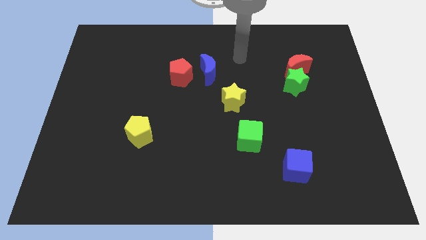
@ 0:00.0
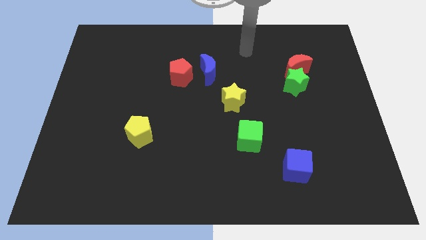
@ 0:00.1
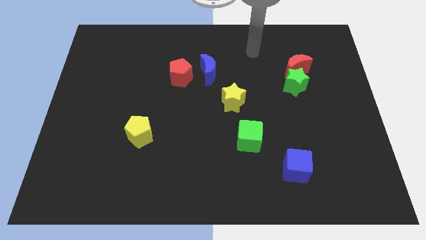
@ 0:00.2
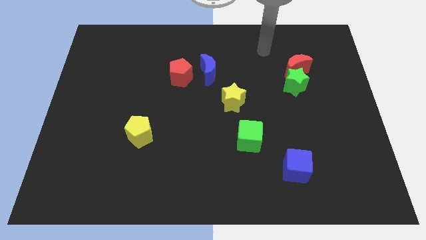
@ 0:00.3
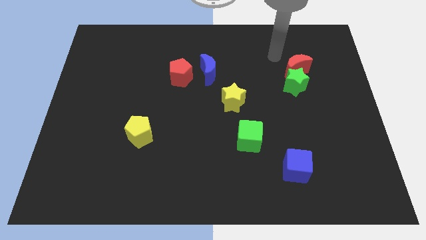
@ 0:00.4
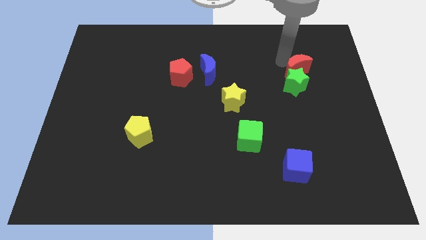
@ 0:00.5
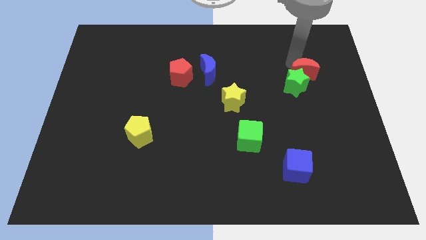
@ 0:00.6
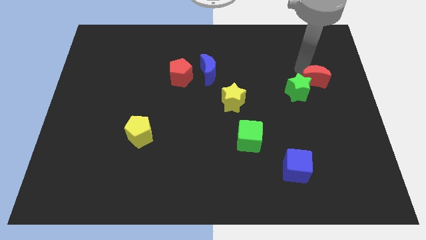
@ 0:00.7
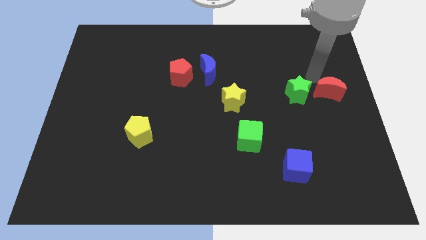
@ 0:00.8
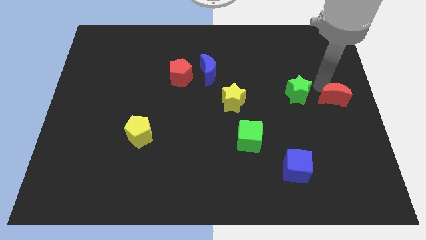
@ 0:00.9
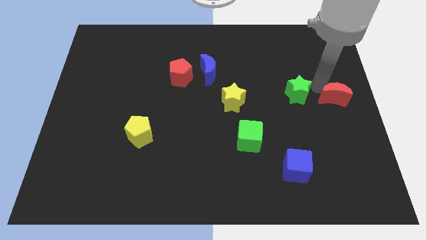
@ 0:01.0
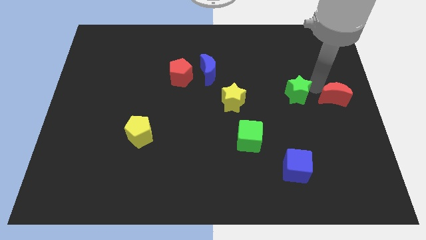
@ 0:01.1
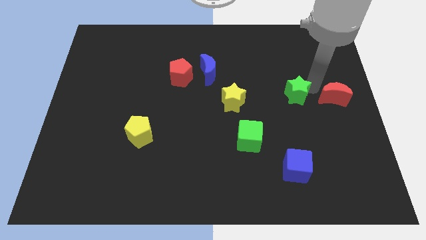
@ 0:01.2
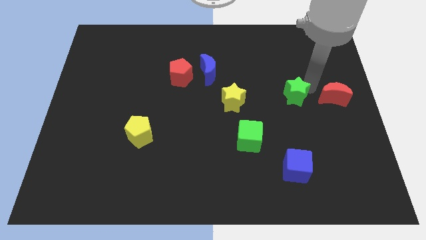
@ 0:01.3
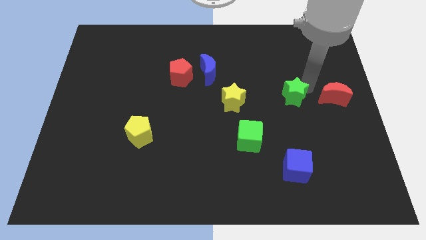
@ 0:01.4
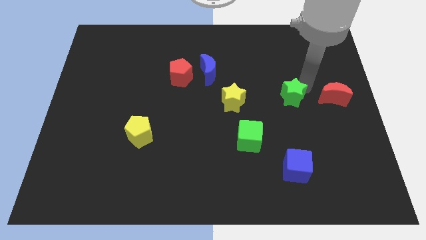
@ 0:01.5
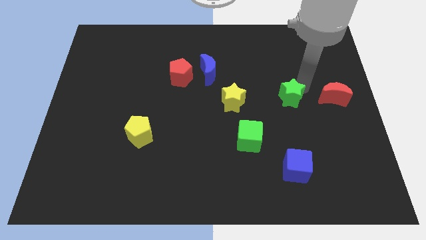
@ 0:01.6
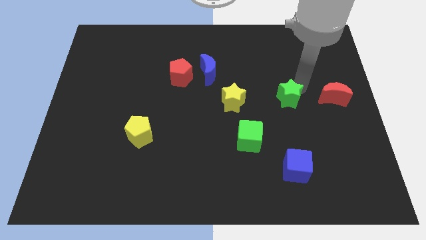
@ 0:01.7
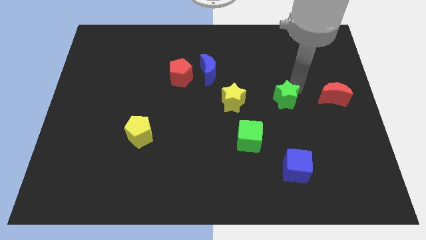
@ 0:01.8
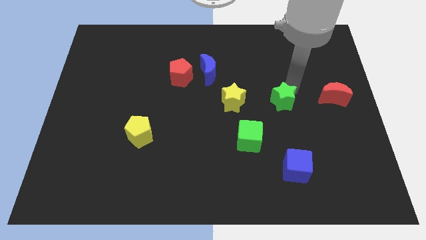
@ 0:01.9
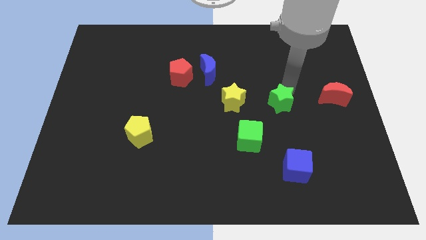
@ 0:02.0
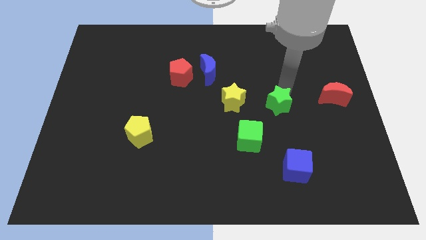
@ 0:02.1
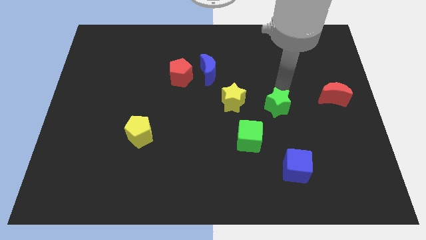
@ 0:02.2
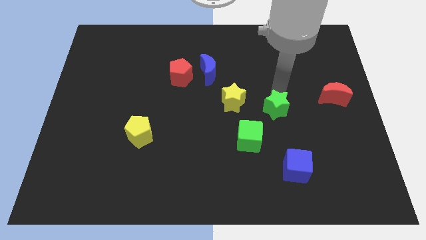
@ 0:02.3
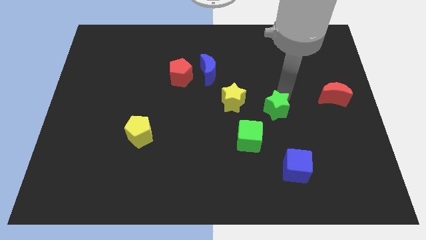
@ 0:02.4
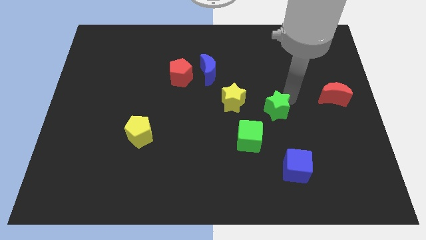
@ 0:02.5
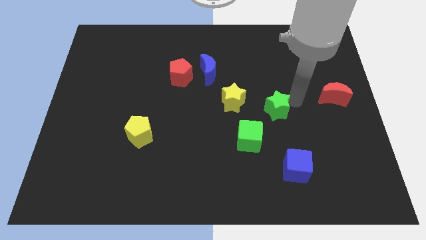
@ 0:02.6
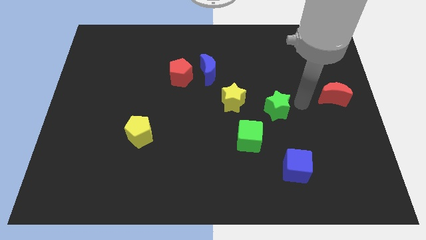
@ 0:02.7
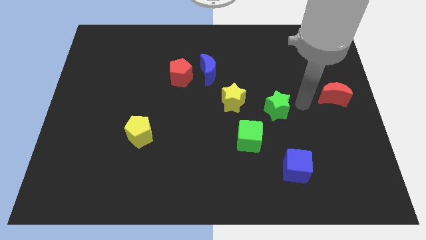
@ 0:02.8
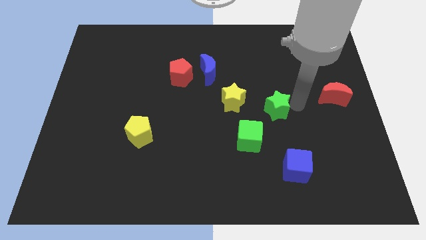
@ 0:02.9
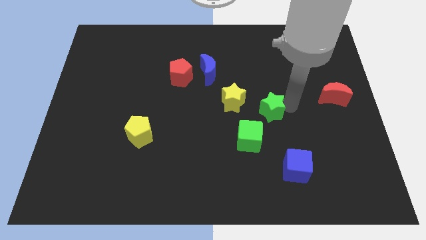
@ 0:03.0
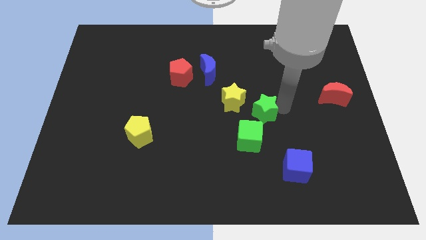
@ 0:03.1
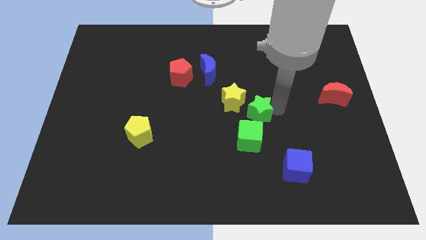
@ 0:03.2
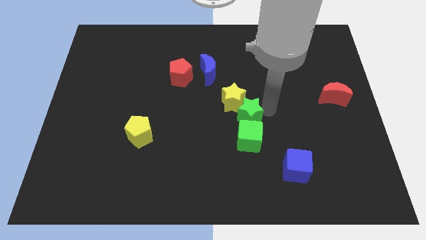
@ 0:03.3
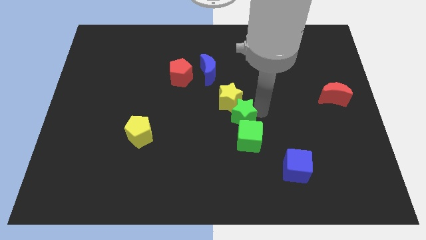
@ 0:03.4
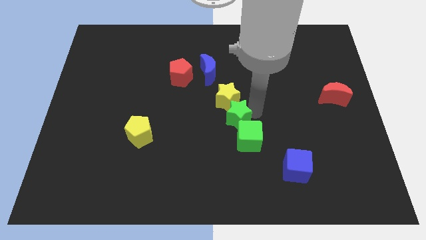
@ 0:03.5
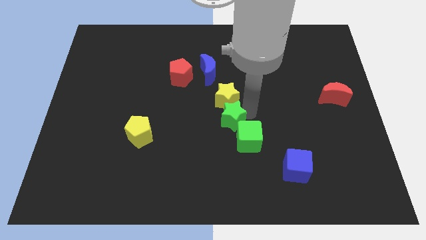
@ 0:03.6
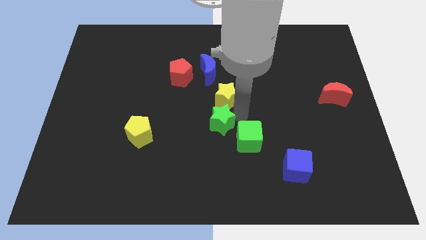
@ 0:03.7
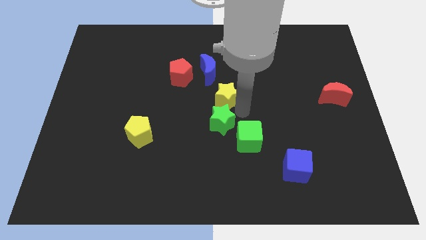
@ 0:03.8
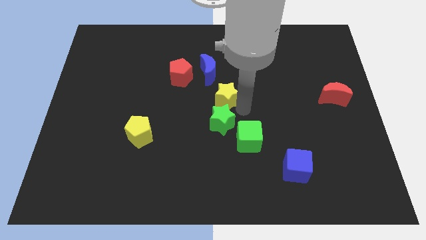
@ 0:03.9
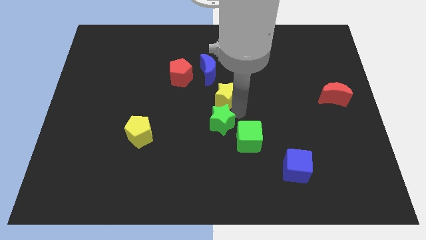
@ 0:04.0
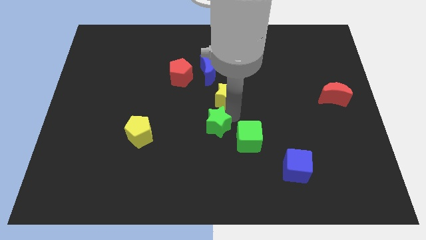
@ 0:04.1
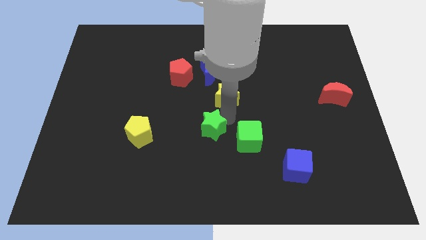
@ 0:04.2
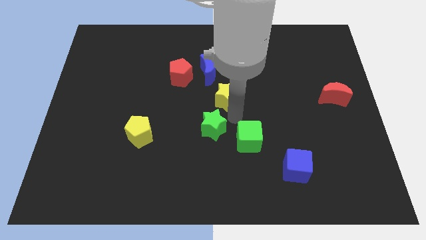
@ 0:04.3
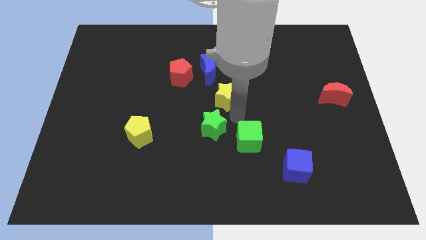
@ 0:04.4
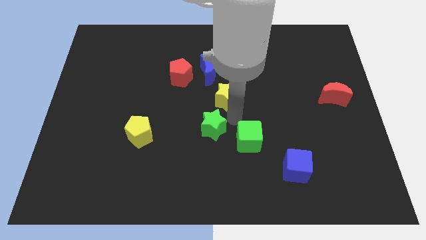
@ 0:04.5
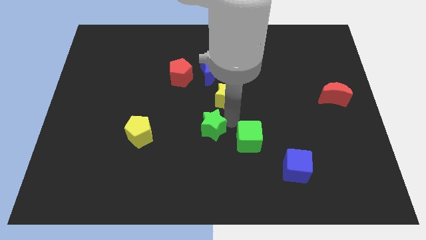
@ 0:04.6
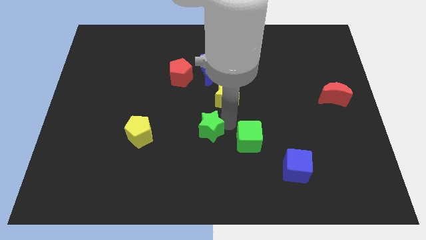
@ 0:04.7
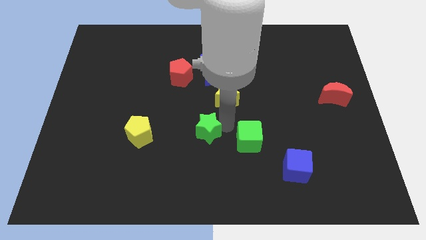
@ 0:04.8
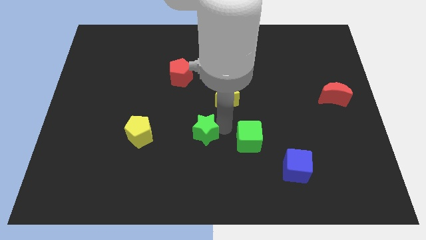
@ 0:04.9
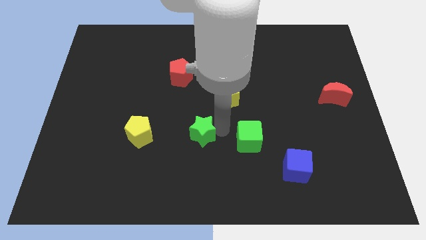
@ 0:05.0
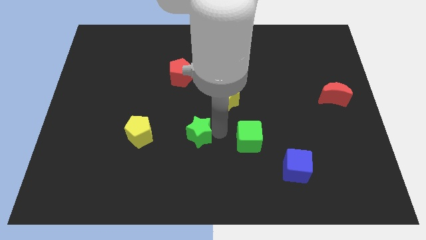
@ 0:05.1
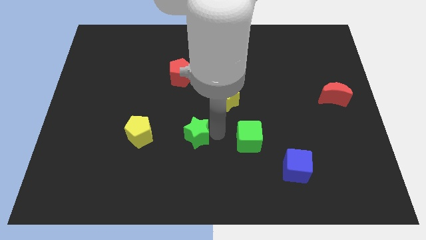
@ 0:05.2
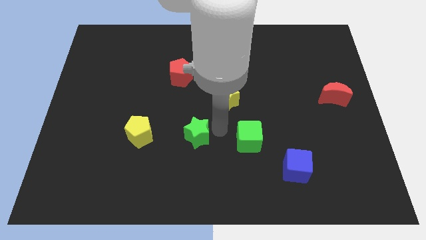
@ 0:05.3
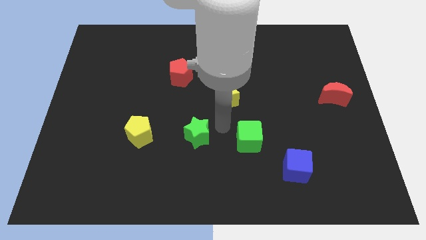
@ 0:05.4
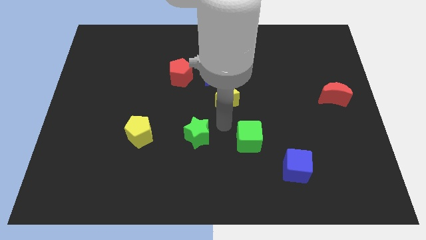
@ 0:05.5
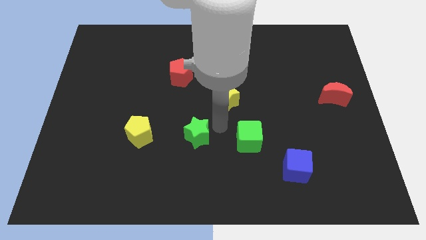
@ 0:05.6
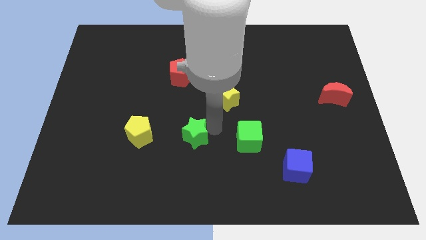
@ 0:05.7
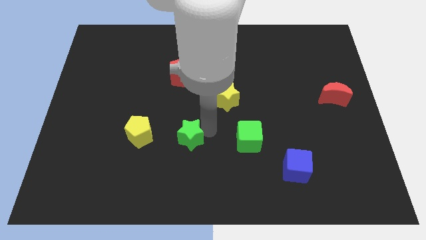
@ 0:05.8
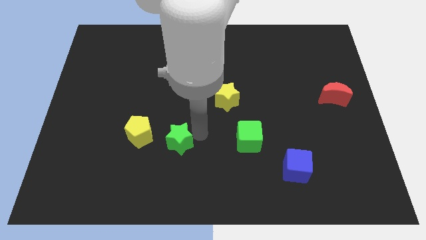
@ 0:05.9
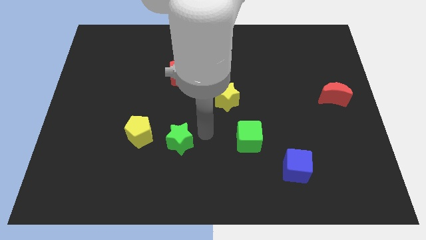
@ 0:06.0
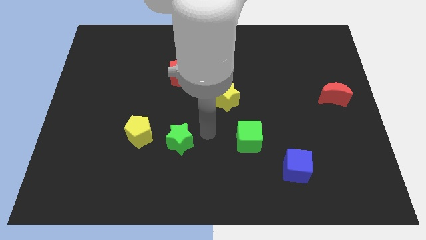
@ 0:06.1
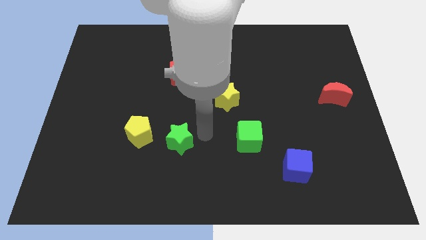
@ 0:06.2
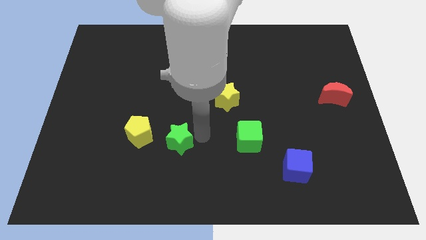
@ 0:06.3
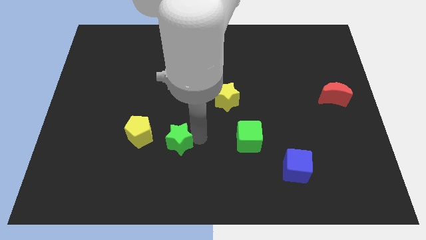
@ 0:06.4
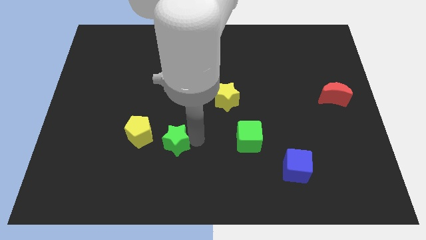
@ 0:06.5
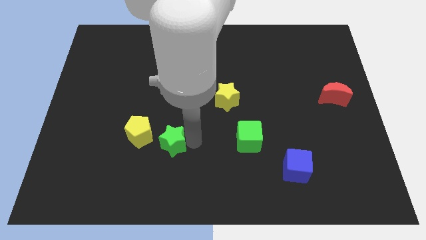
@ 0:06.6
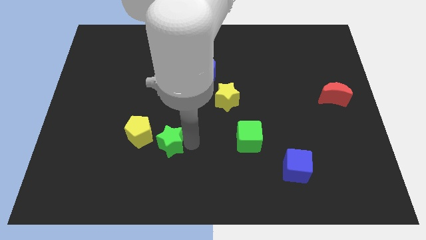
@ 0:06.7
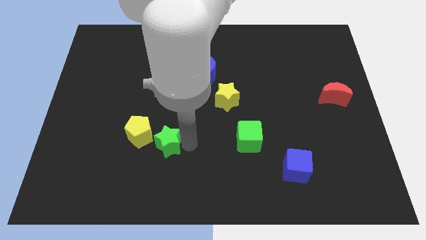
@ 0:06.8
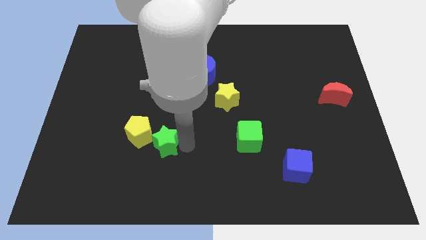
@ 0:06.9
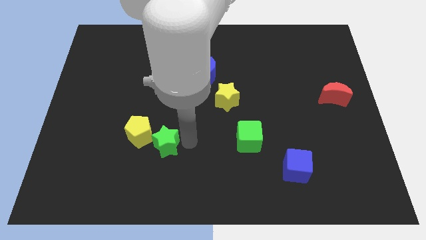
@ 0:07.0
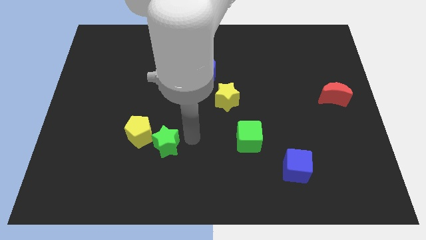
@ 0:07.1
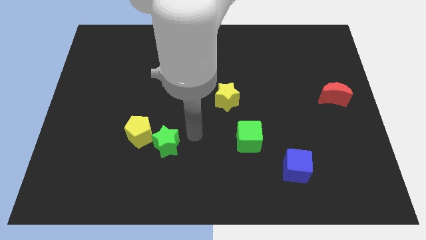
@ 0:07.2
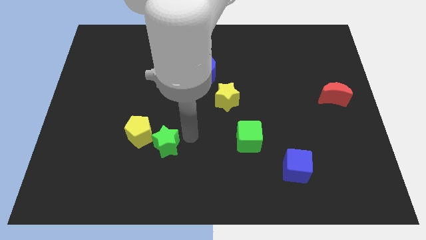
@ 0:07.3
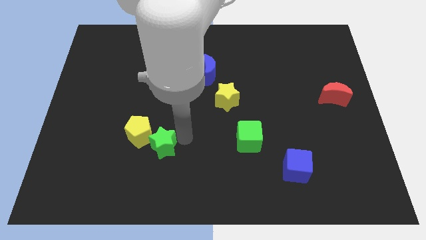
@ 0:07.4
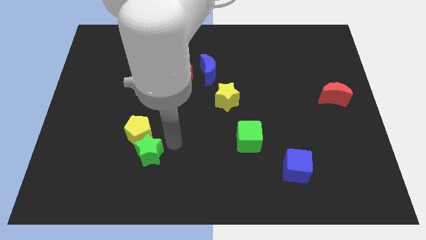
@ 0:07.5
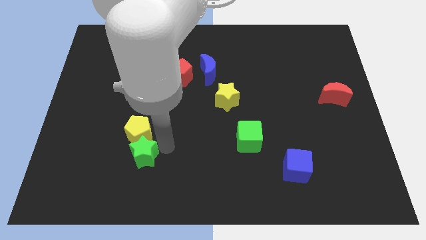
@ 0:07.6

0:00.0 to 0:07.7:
slide the green star to the bottom left of the yellow pentagon
